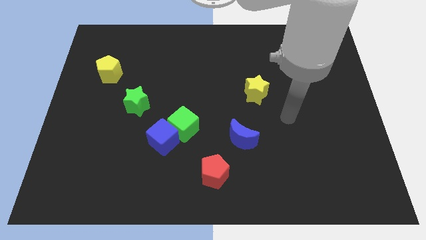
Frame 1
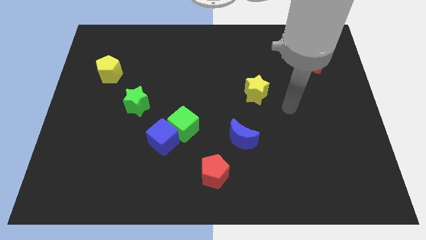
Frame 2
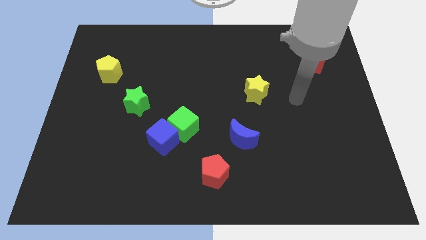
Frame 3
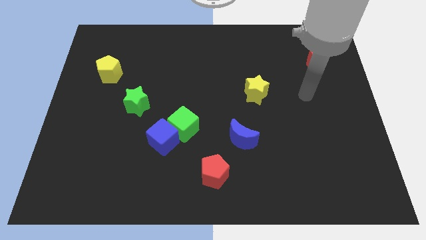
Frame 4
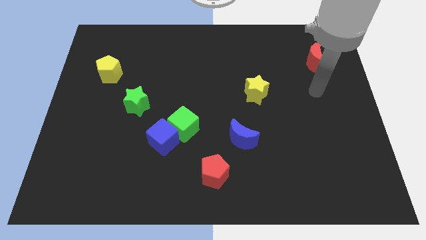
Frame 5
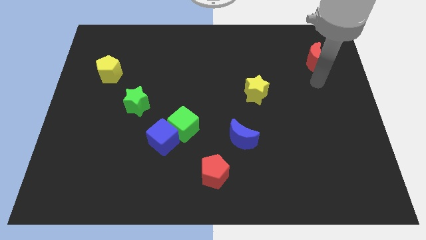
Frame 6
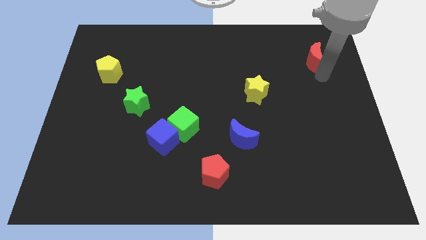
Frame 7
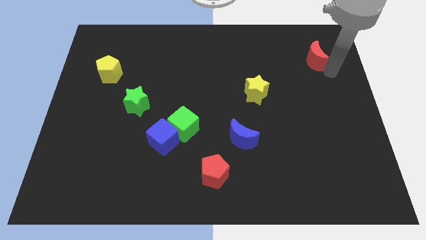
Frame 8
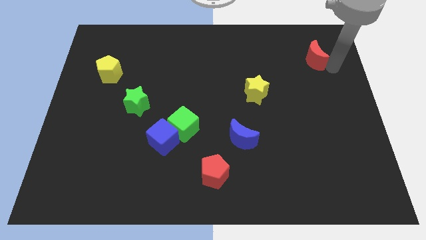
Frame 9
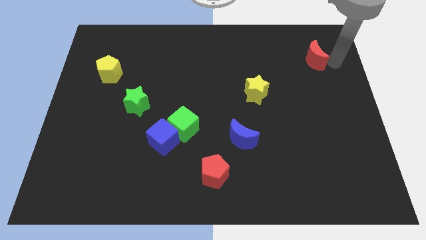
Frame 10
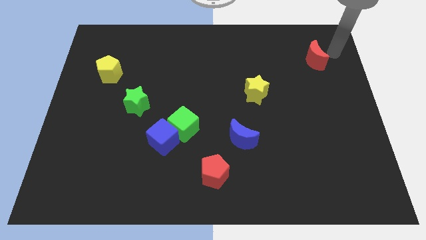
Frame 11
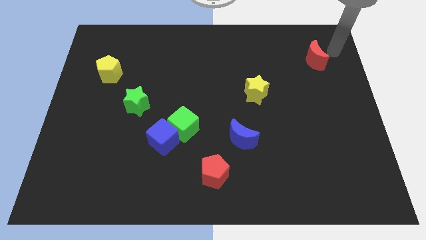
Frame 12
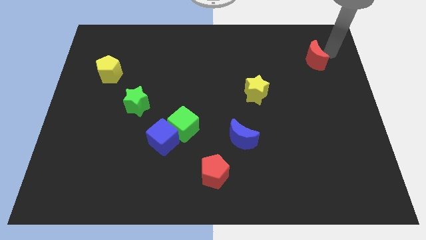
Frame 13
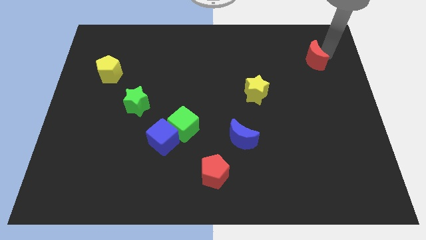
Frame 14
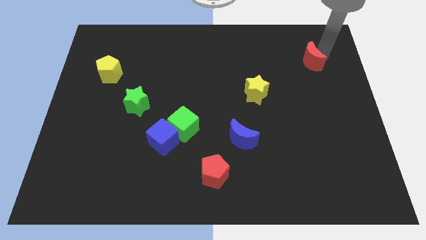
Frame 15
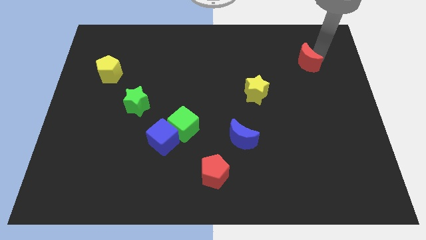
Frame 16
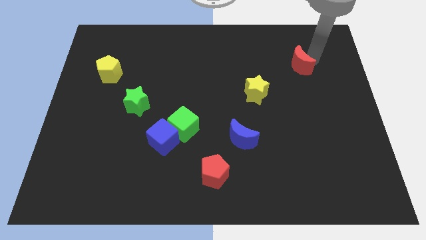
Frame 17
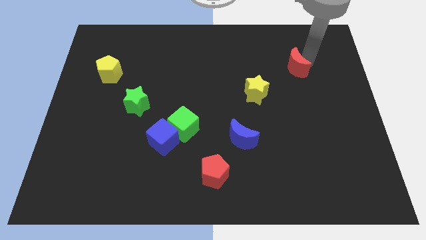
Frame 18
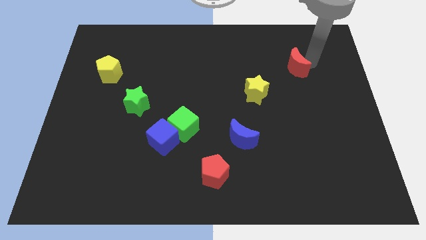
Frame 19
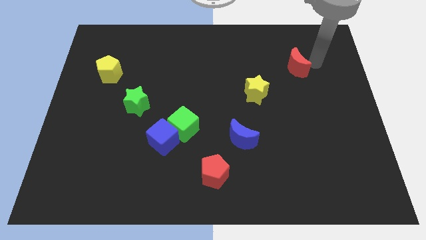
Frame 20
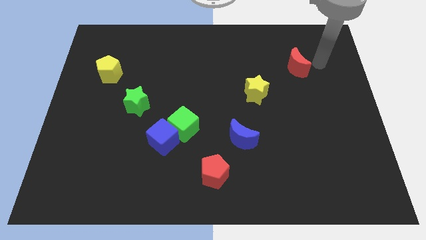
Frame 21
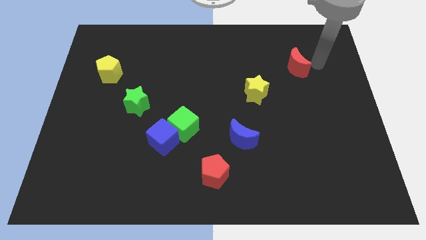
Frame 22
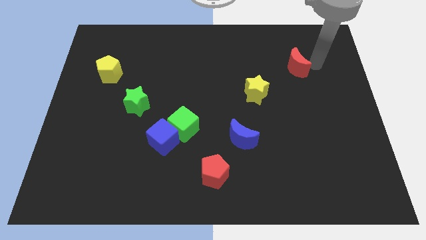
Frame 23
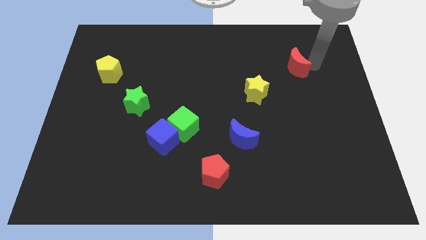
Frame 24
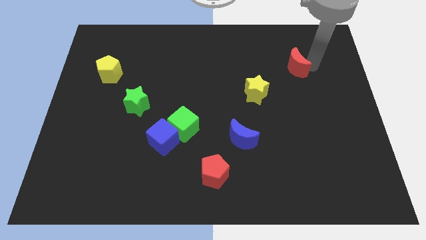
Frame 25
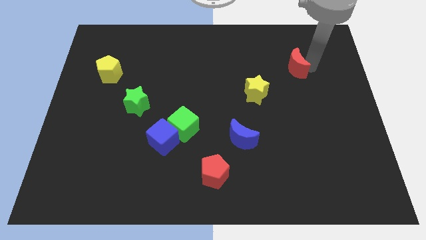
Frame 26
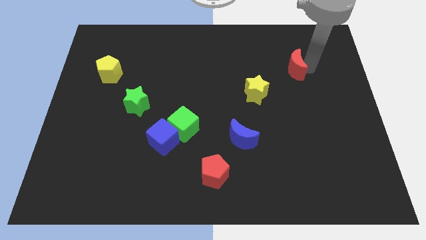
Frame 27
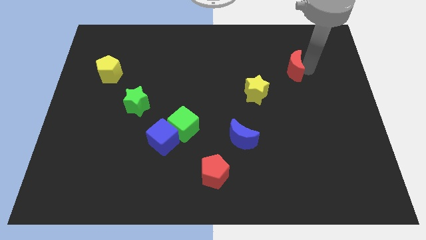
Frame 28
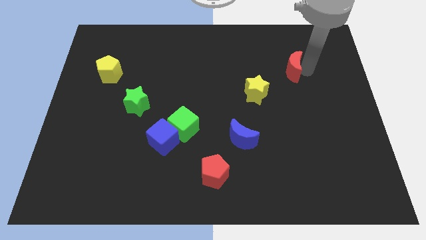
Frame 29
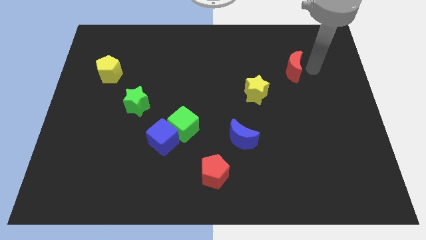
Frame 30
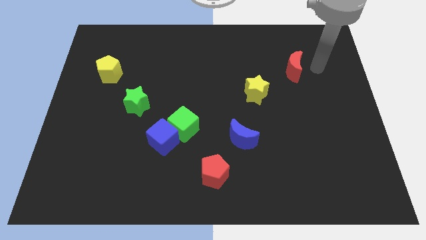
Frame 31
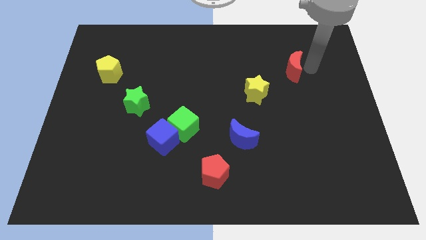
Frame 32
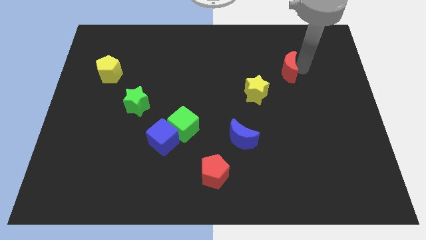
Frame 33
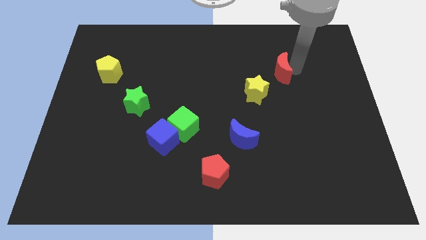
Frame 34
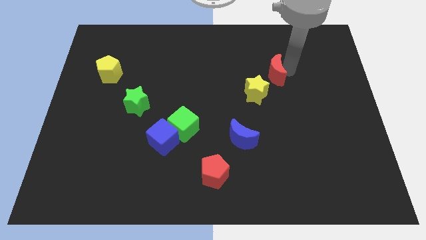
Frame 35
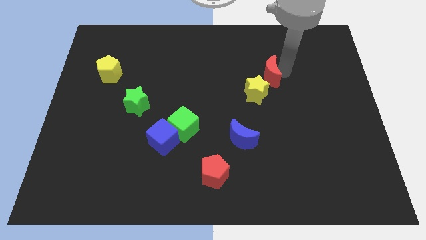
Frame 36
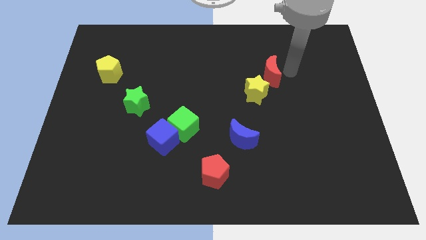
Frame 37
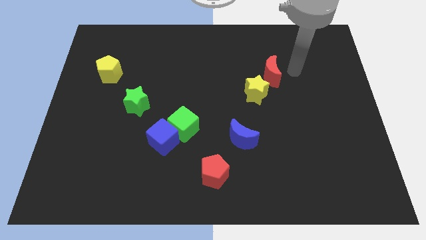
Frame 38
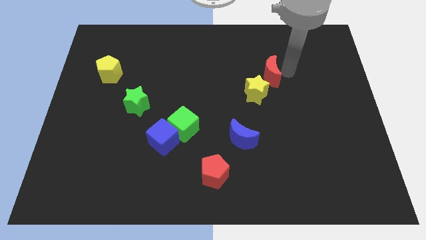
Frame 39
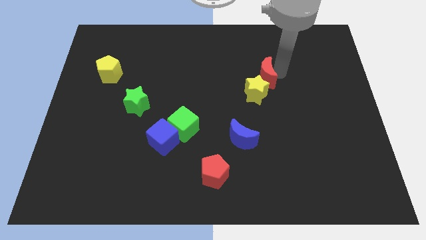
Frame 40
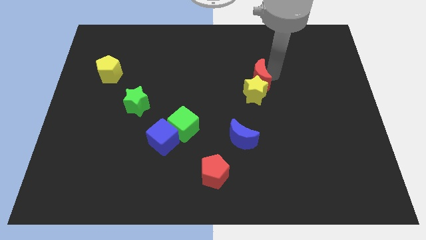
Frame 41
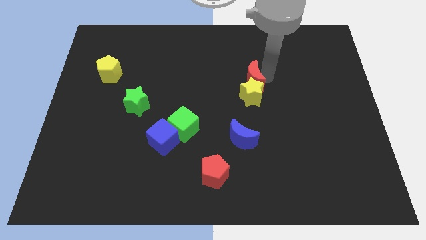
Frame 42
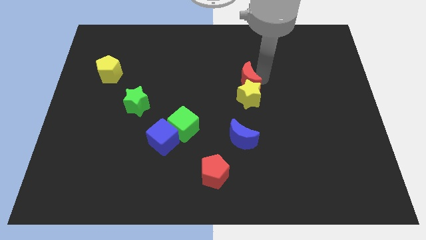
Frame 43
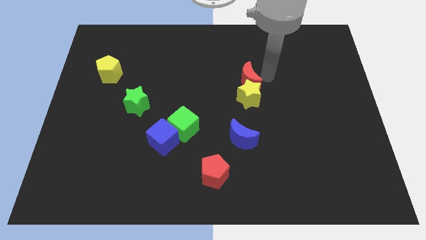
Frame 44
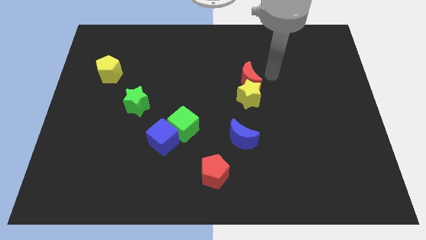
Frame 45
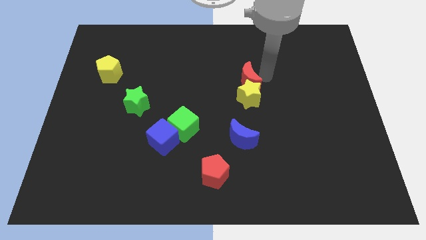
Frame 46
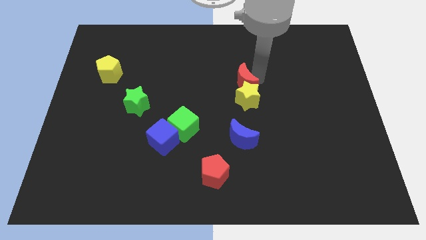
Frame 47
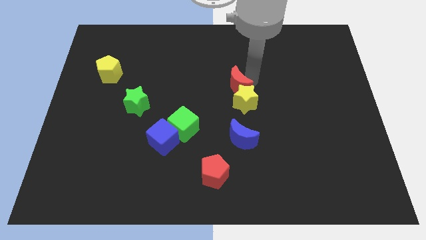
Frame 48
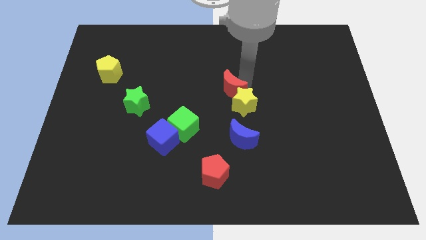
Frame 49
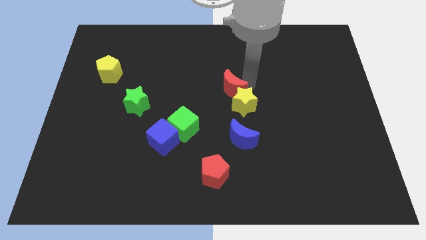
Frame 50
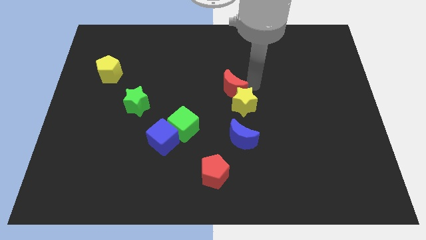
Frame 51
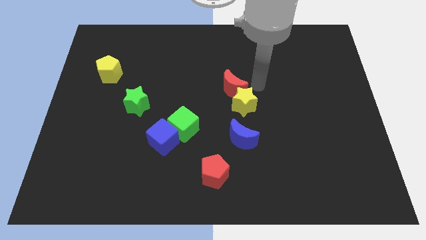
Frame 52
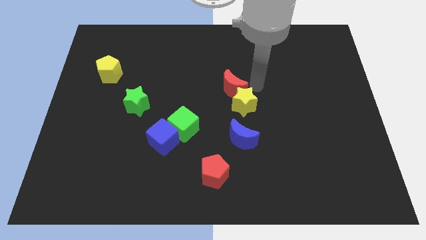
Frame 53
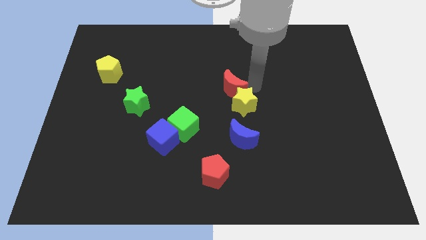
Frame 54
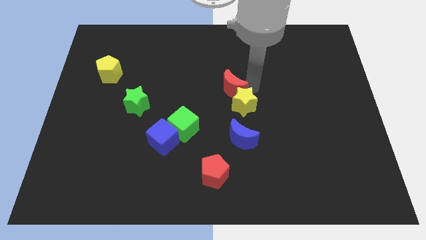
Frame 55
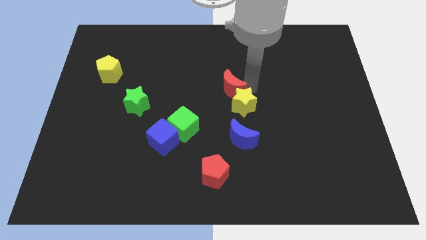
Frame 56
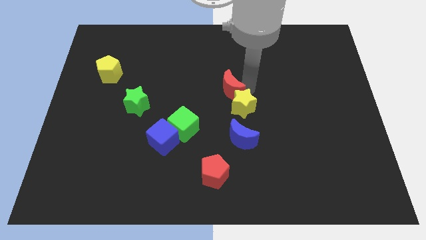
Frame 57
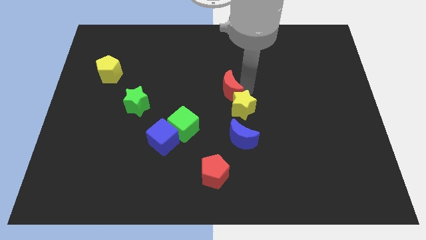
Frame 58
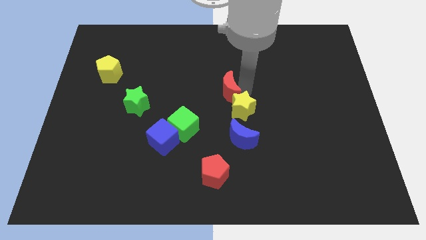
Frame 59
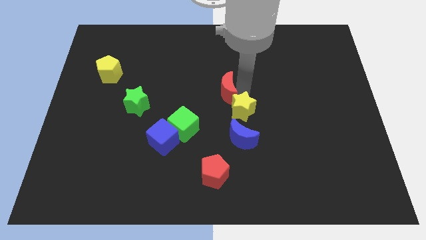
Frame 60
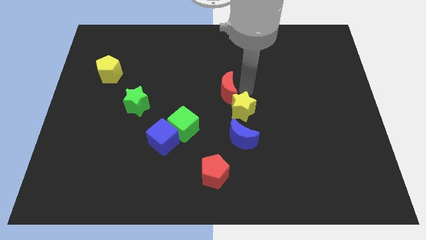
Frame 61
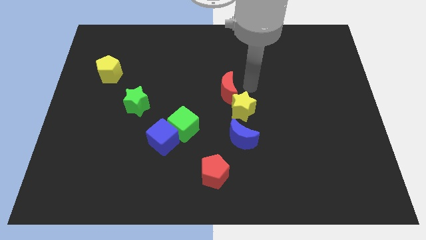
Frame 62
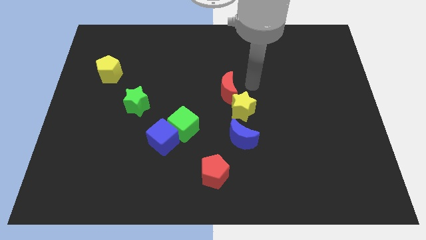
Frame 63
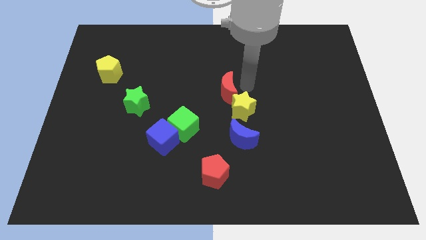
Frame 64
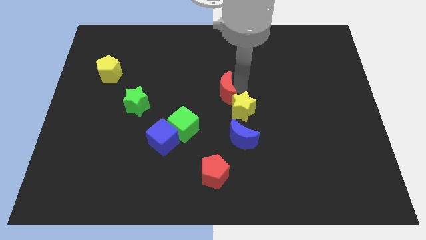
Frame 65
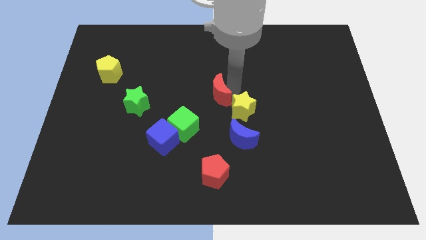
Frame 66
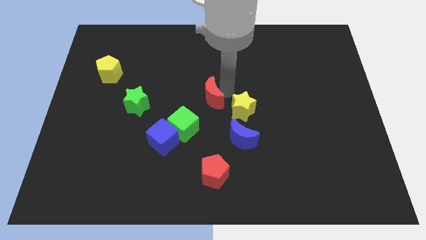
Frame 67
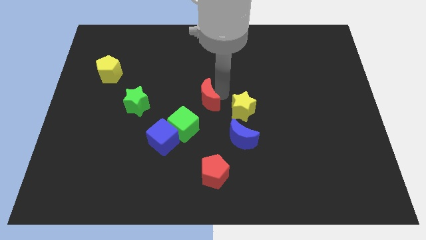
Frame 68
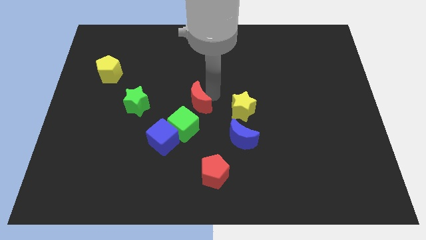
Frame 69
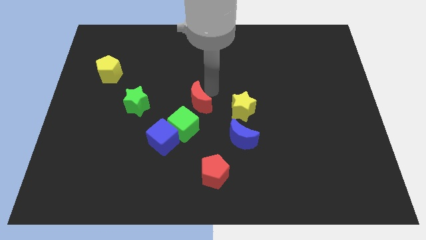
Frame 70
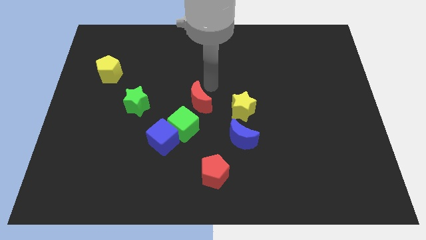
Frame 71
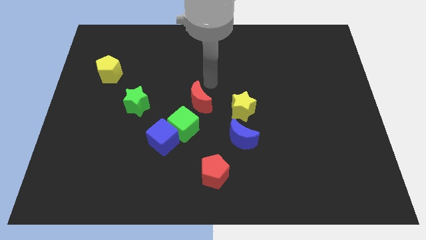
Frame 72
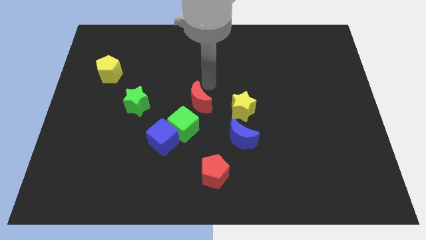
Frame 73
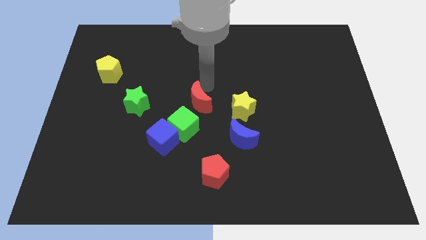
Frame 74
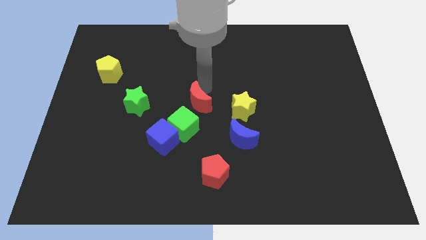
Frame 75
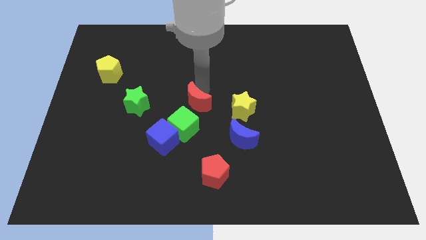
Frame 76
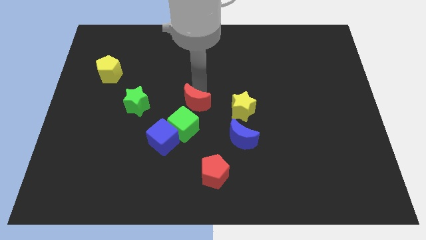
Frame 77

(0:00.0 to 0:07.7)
push the red moon diagonally up and to the right of the blue cube
